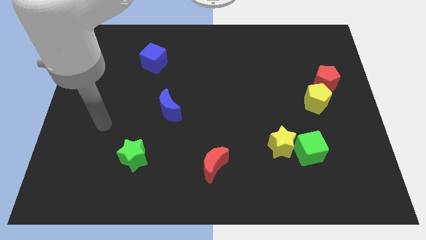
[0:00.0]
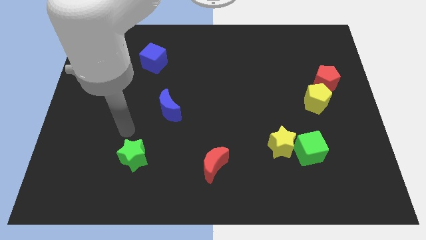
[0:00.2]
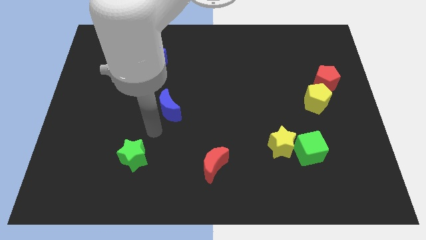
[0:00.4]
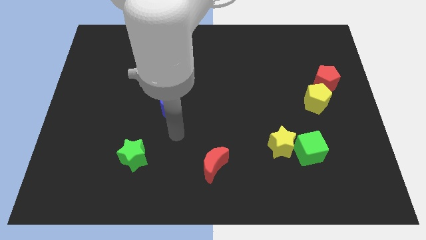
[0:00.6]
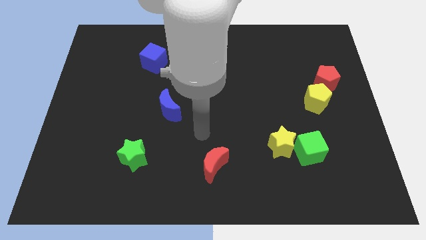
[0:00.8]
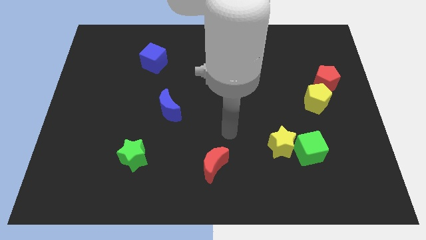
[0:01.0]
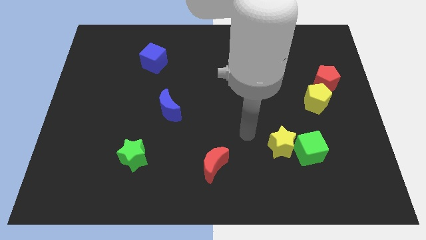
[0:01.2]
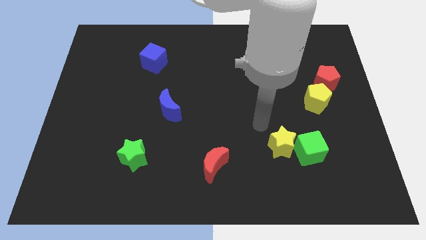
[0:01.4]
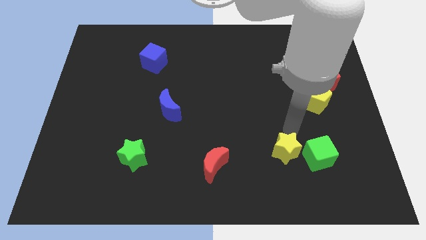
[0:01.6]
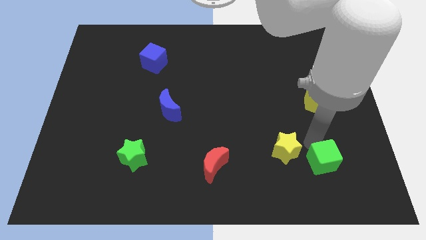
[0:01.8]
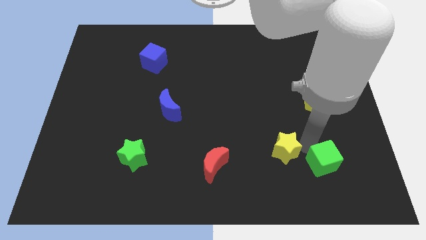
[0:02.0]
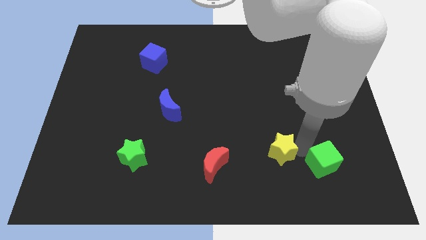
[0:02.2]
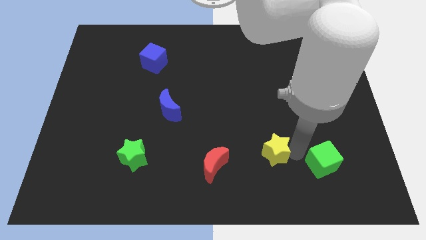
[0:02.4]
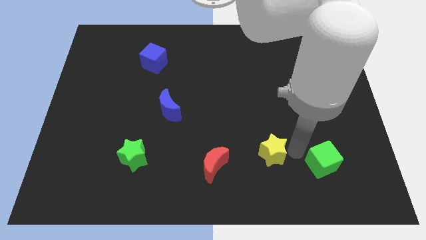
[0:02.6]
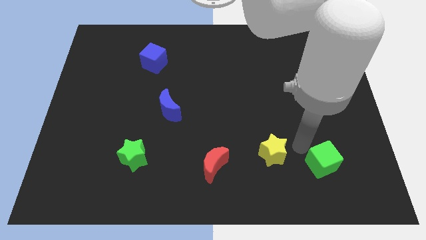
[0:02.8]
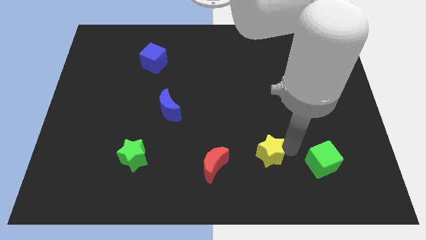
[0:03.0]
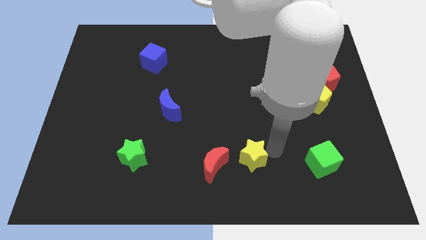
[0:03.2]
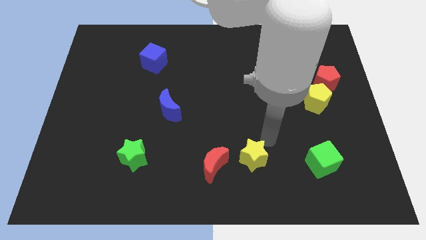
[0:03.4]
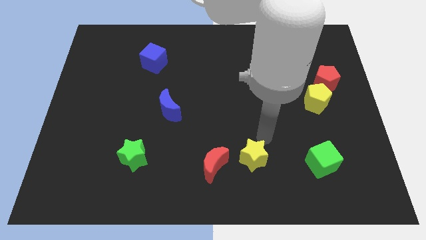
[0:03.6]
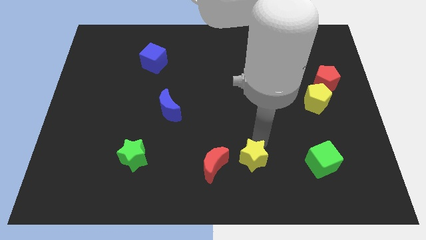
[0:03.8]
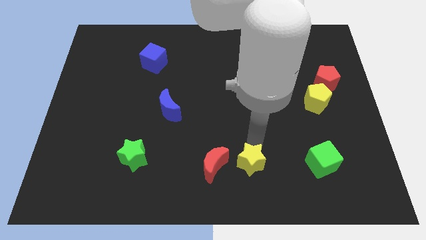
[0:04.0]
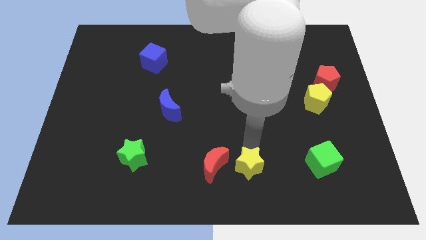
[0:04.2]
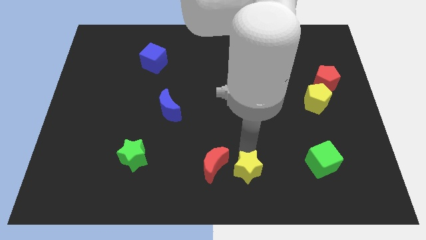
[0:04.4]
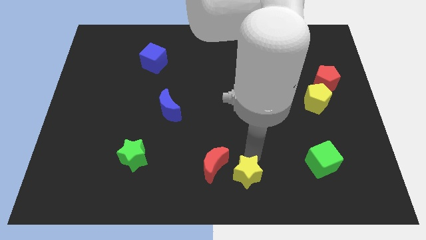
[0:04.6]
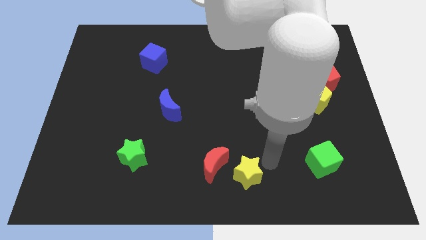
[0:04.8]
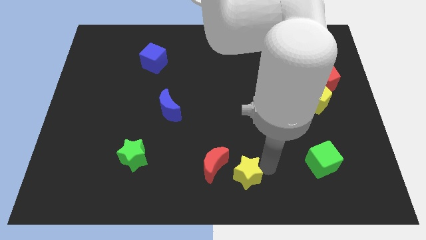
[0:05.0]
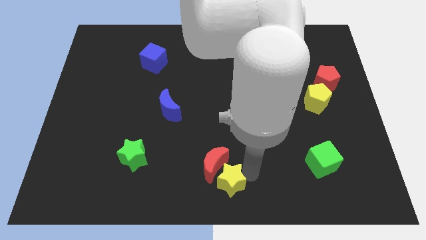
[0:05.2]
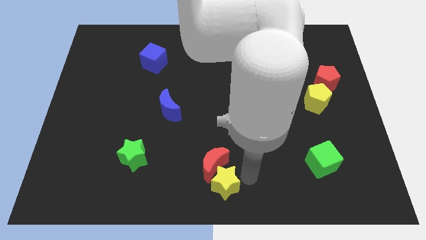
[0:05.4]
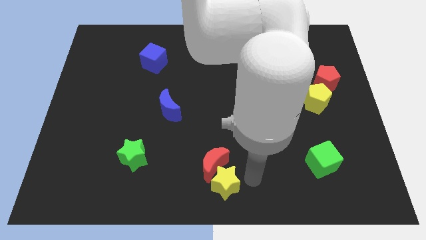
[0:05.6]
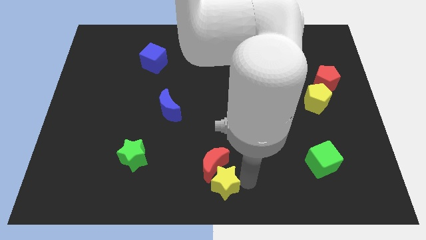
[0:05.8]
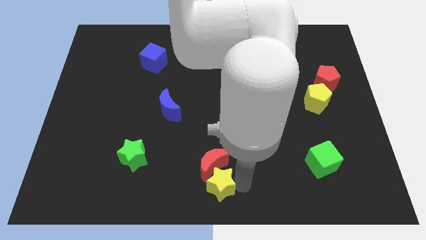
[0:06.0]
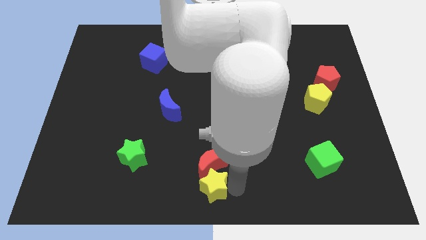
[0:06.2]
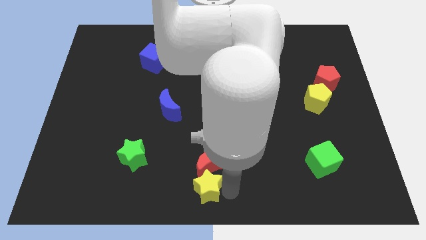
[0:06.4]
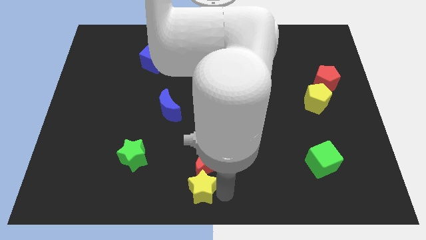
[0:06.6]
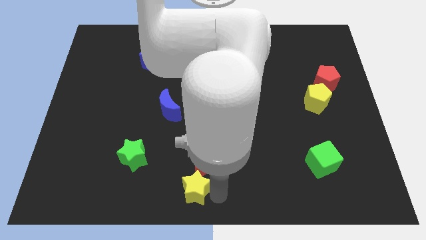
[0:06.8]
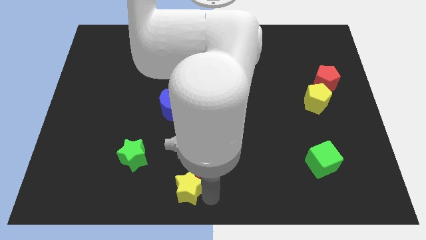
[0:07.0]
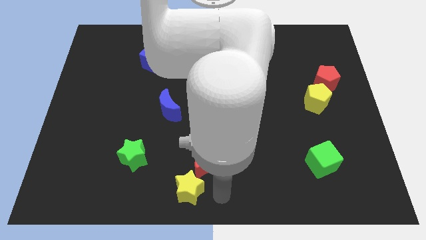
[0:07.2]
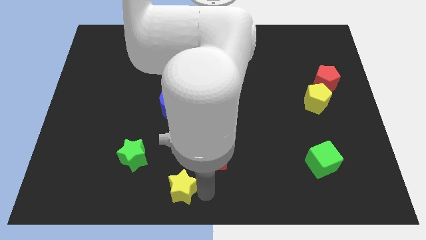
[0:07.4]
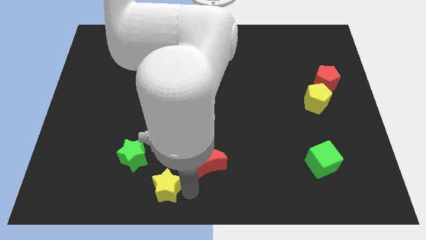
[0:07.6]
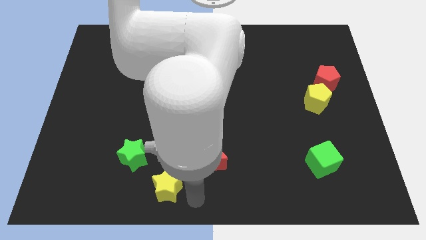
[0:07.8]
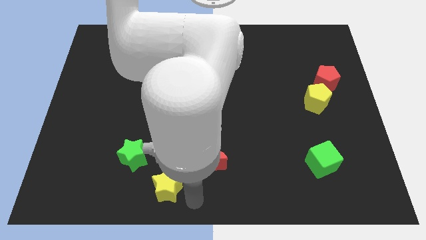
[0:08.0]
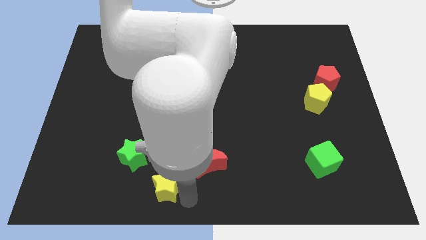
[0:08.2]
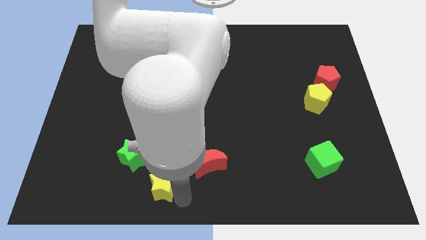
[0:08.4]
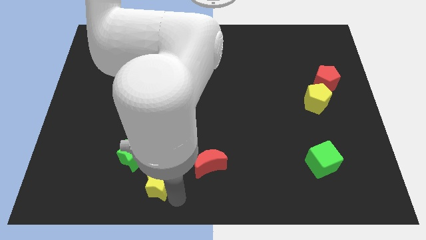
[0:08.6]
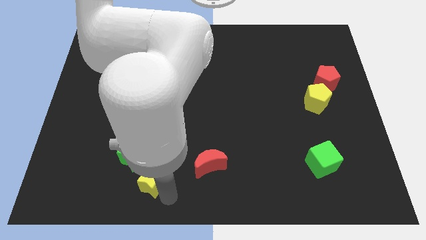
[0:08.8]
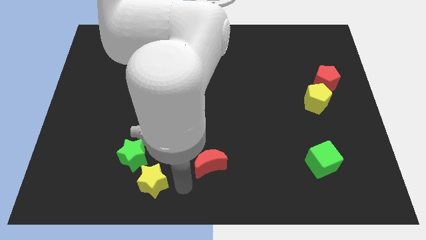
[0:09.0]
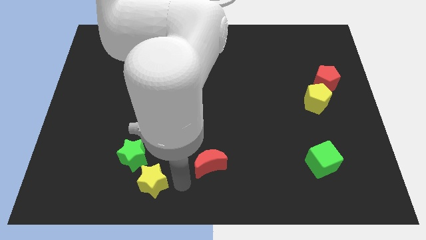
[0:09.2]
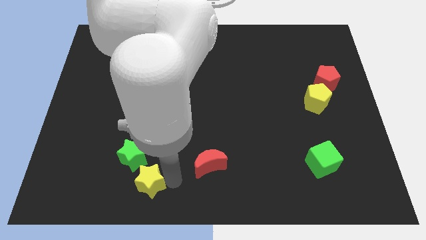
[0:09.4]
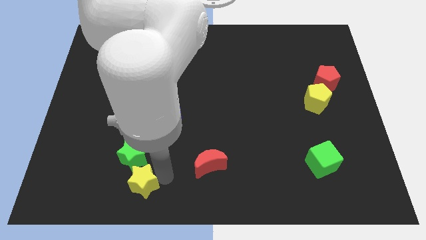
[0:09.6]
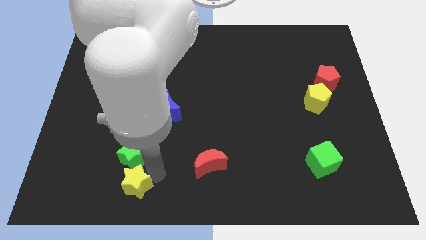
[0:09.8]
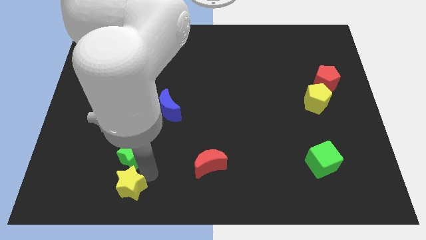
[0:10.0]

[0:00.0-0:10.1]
push the yellow star diagonally down and to the left of the green star

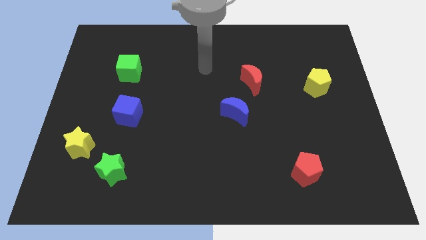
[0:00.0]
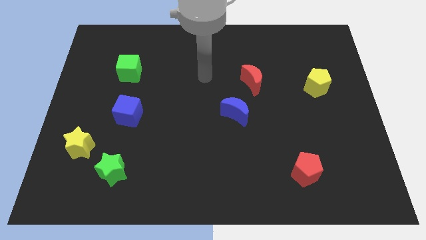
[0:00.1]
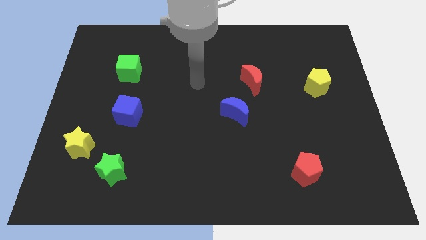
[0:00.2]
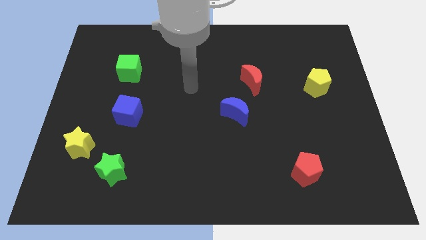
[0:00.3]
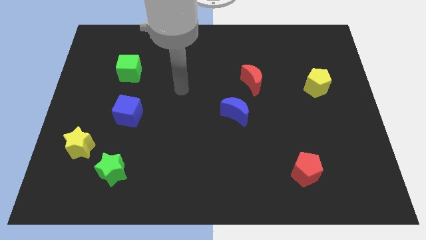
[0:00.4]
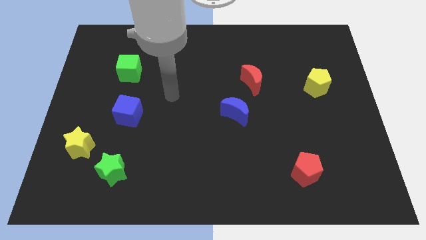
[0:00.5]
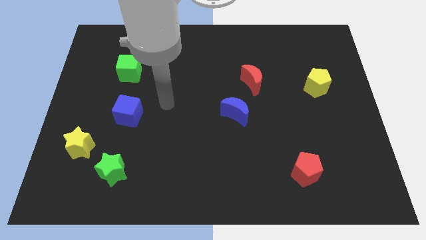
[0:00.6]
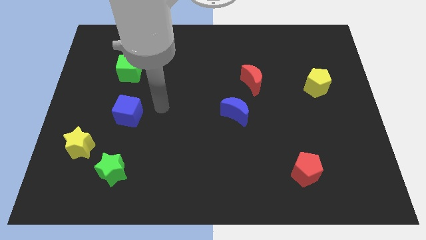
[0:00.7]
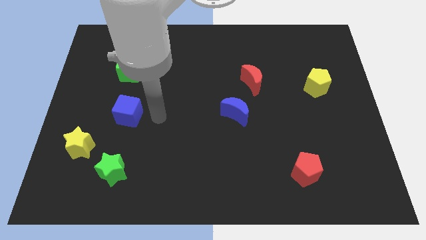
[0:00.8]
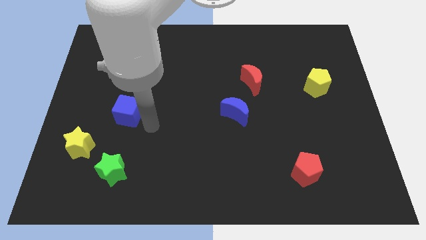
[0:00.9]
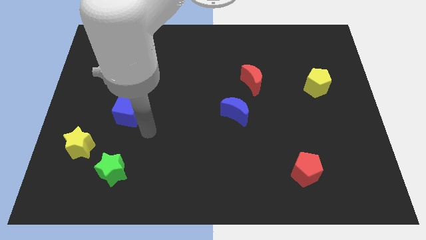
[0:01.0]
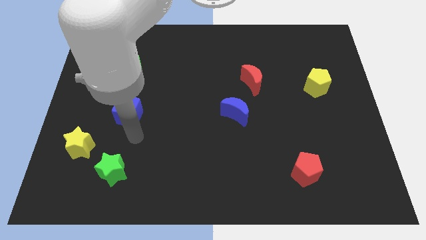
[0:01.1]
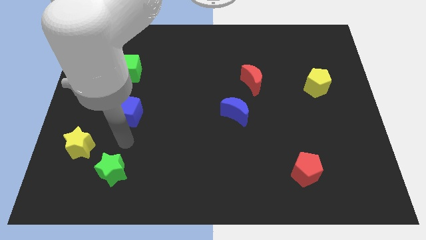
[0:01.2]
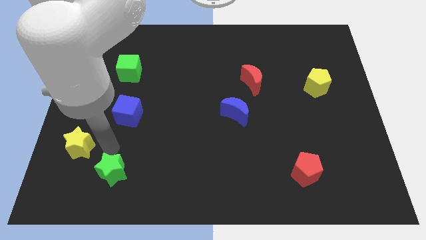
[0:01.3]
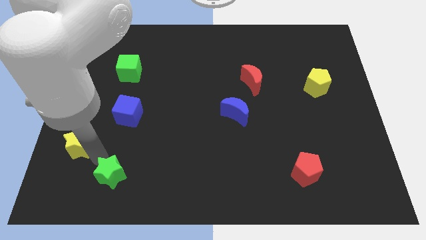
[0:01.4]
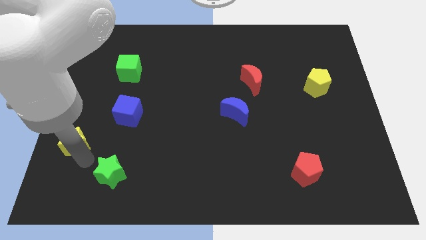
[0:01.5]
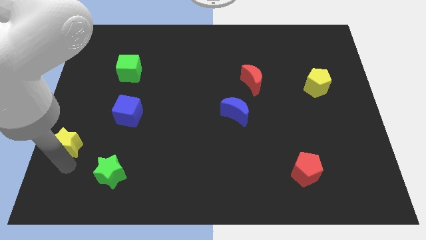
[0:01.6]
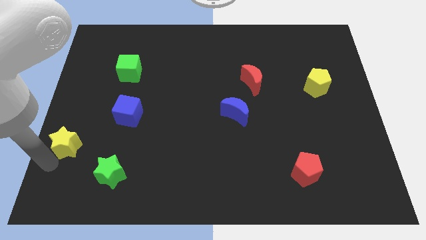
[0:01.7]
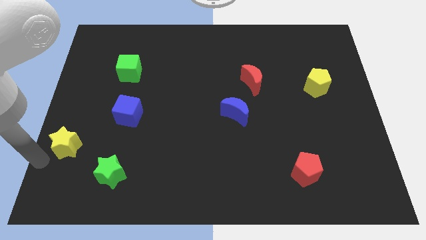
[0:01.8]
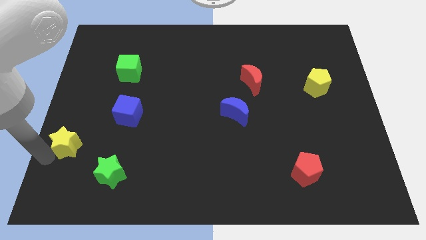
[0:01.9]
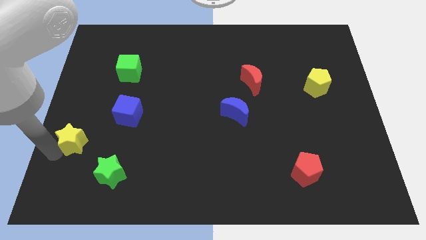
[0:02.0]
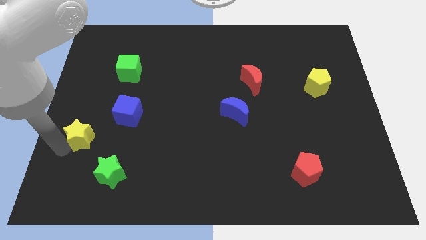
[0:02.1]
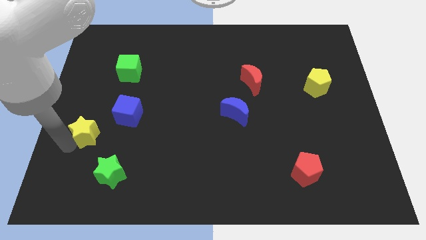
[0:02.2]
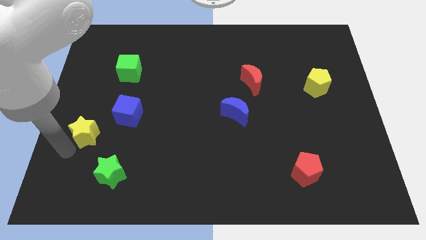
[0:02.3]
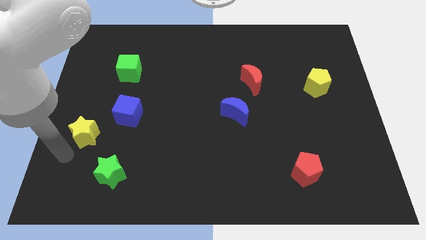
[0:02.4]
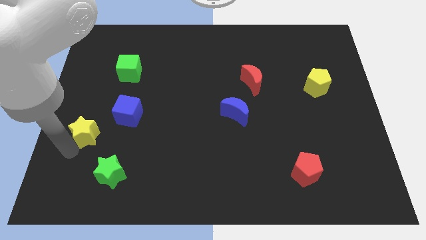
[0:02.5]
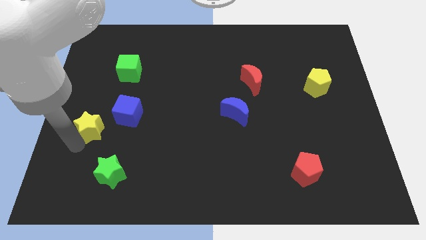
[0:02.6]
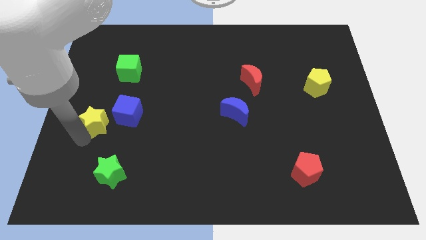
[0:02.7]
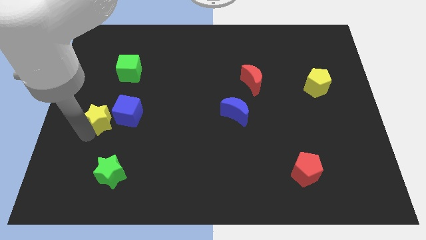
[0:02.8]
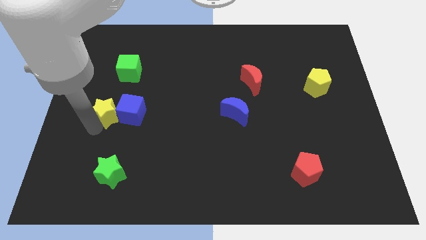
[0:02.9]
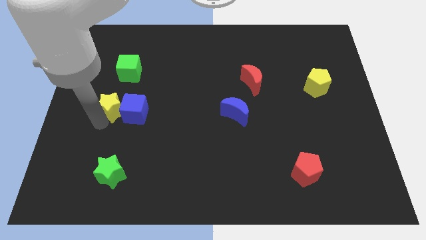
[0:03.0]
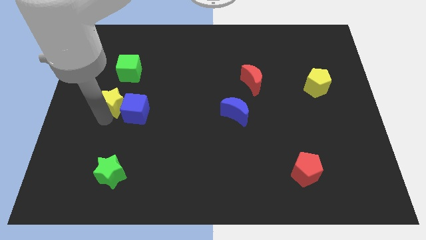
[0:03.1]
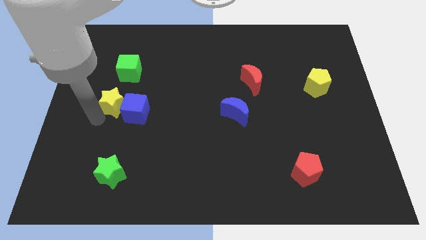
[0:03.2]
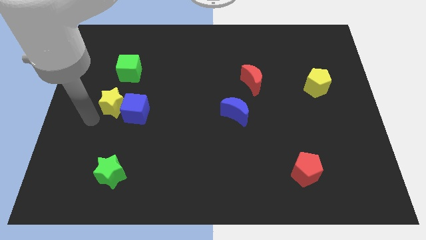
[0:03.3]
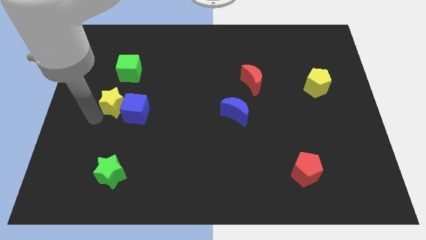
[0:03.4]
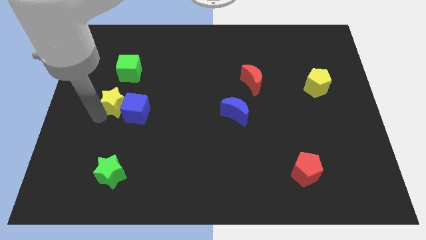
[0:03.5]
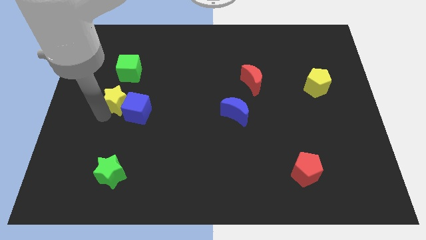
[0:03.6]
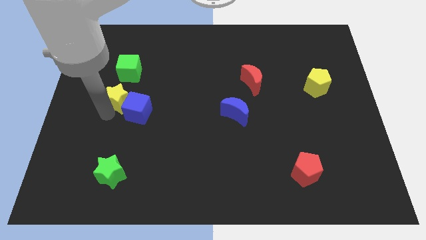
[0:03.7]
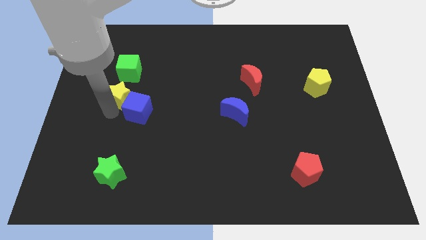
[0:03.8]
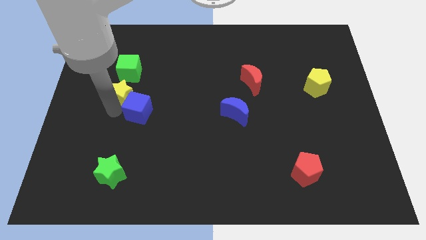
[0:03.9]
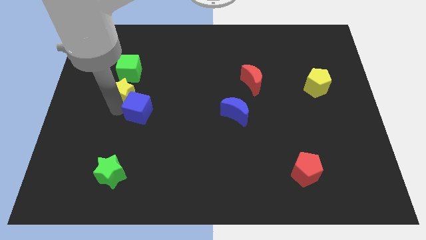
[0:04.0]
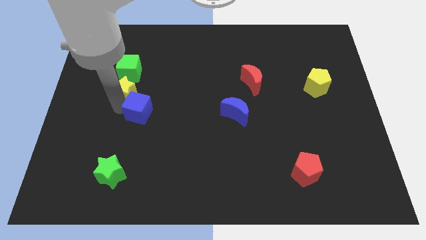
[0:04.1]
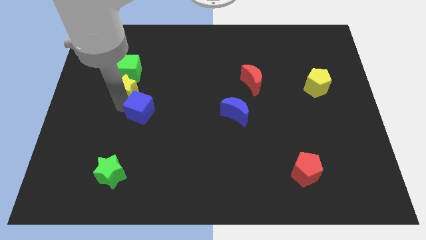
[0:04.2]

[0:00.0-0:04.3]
move the yellow star diagonally down and to the right of the green cube
